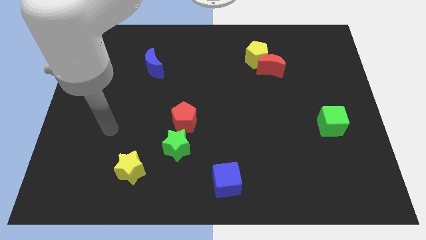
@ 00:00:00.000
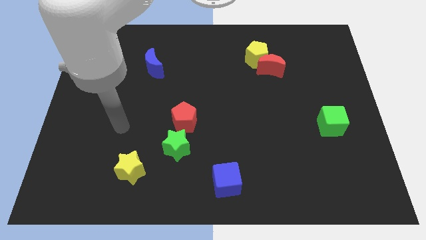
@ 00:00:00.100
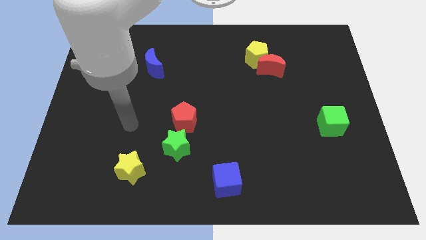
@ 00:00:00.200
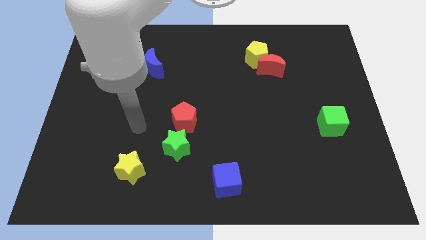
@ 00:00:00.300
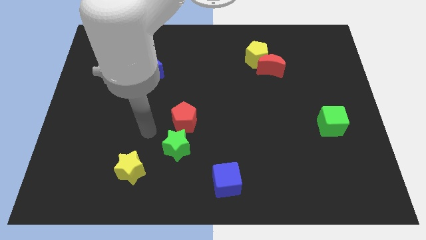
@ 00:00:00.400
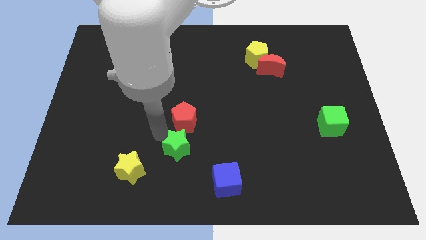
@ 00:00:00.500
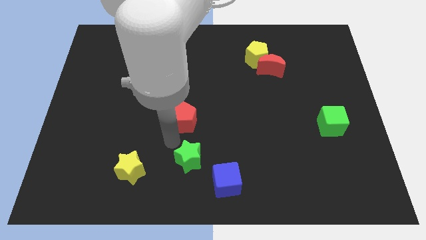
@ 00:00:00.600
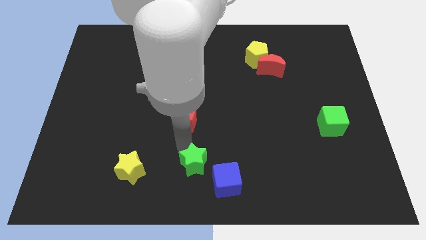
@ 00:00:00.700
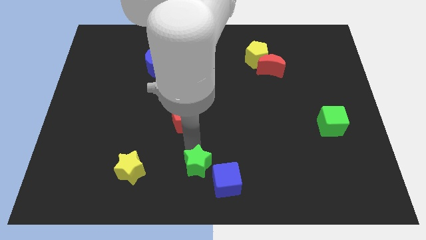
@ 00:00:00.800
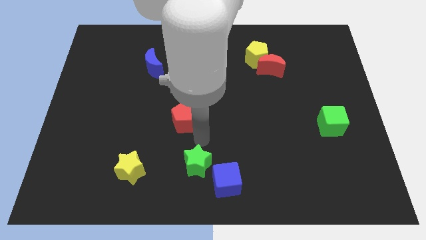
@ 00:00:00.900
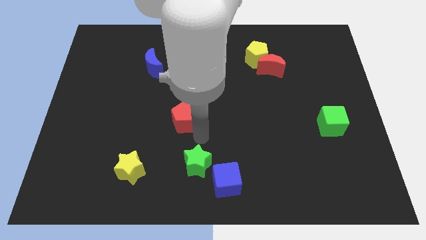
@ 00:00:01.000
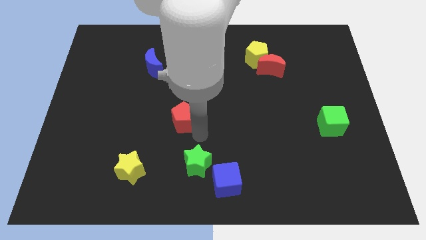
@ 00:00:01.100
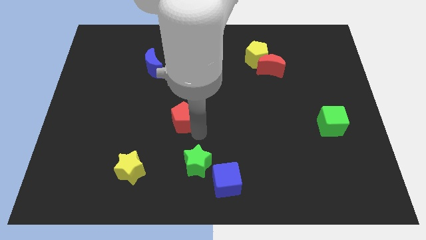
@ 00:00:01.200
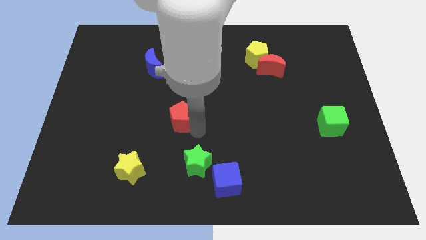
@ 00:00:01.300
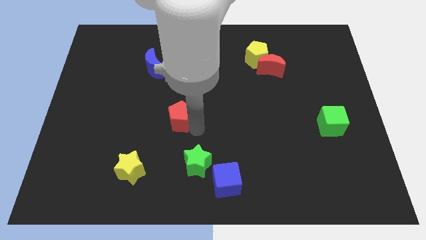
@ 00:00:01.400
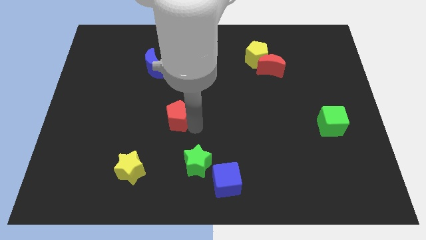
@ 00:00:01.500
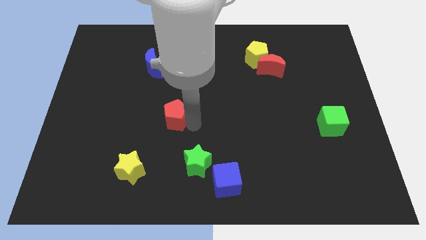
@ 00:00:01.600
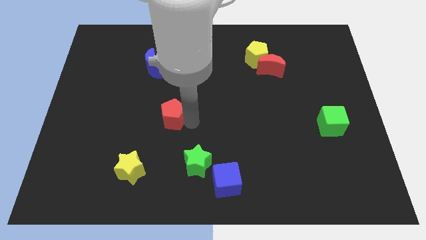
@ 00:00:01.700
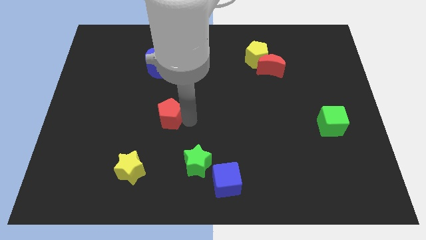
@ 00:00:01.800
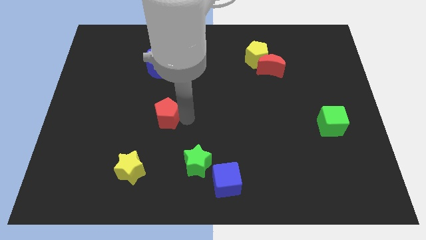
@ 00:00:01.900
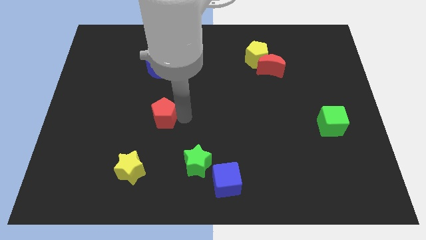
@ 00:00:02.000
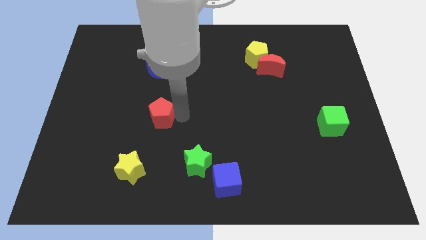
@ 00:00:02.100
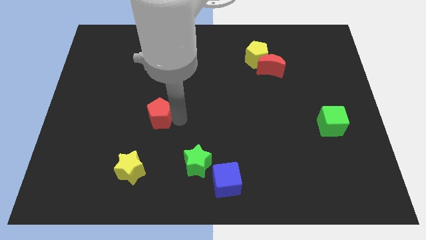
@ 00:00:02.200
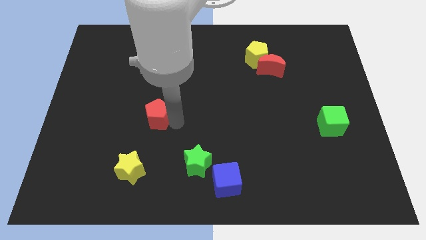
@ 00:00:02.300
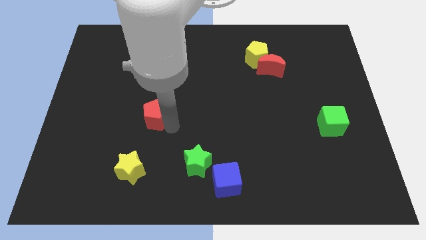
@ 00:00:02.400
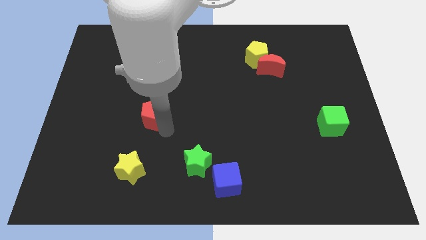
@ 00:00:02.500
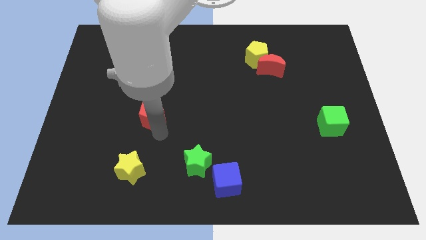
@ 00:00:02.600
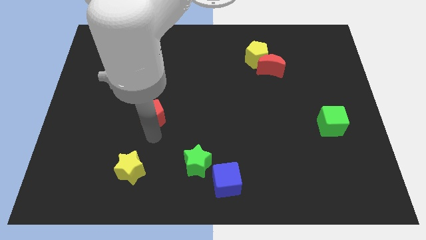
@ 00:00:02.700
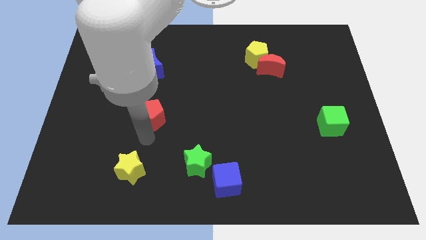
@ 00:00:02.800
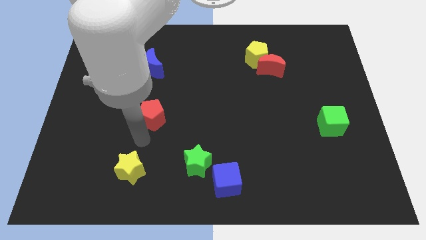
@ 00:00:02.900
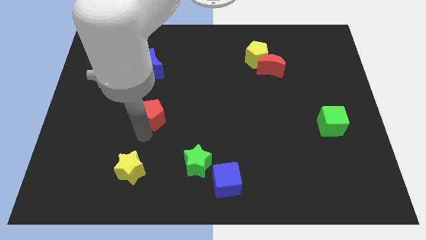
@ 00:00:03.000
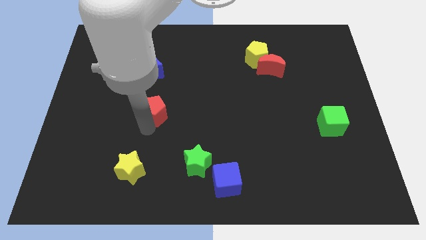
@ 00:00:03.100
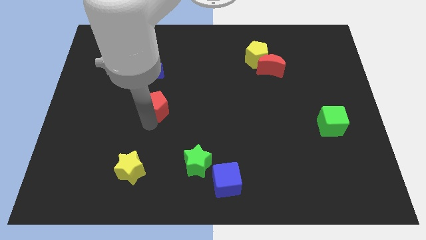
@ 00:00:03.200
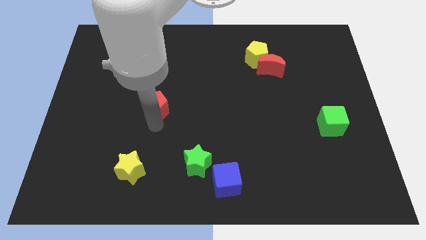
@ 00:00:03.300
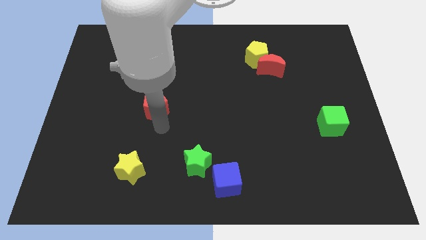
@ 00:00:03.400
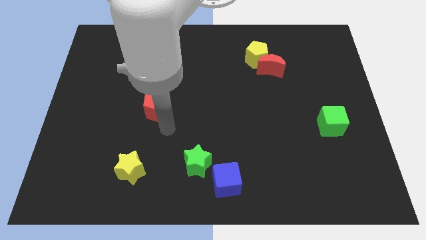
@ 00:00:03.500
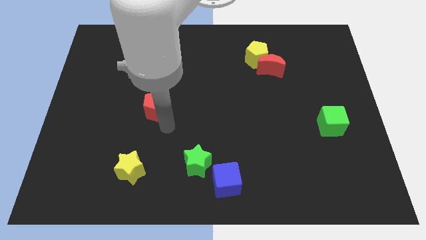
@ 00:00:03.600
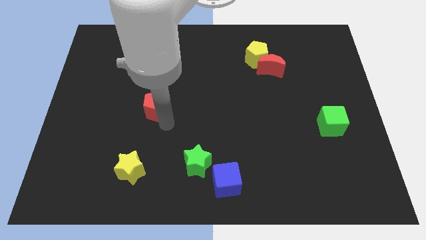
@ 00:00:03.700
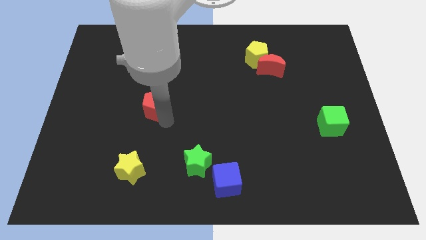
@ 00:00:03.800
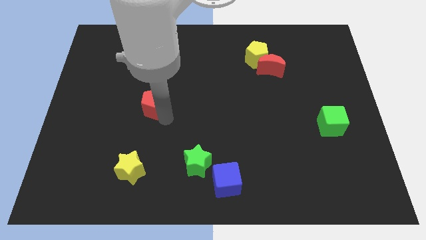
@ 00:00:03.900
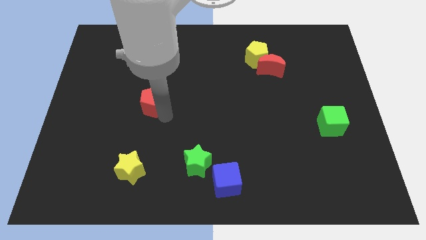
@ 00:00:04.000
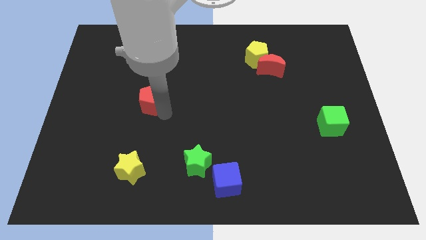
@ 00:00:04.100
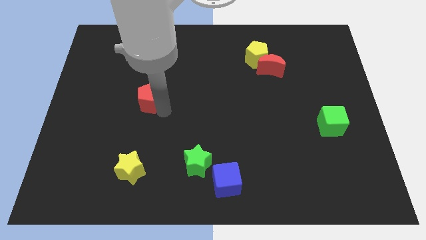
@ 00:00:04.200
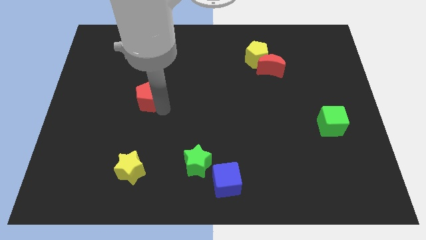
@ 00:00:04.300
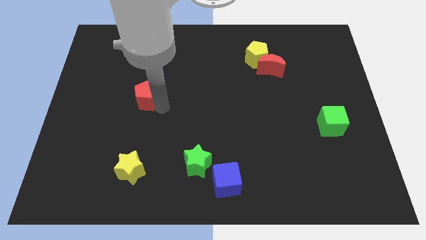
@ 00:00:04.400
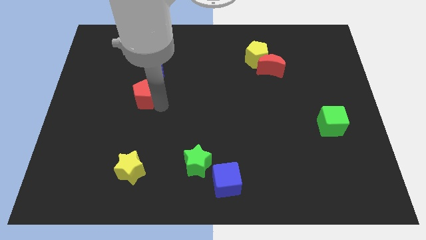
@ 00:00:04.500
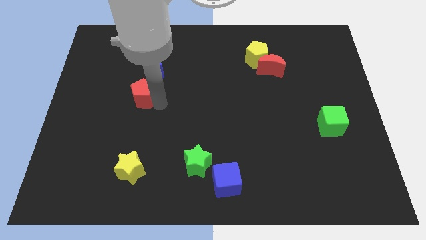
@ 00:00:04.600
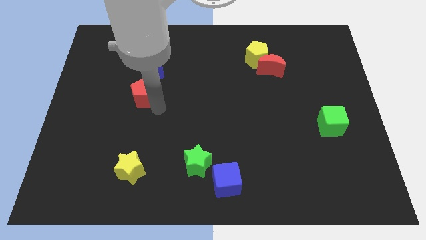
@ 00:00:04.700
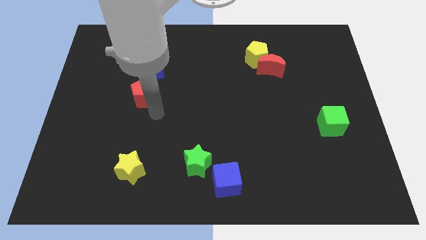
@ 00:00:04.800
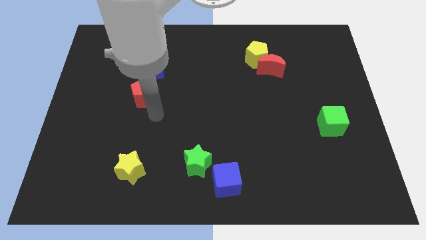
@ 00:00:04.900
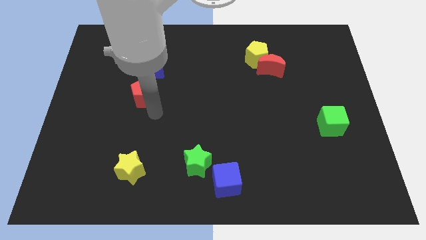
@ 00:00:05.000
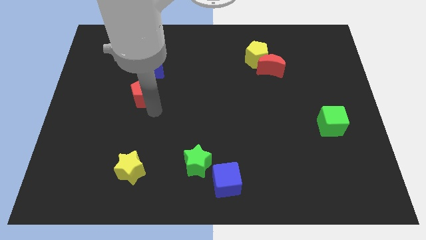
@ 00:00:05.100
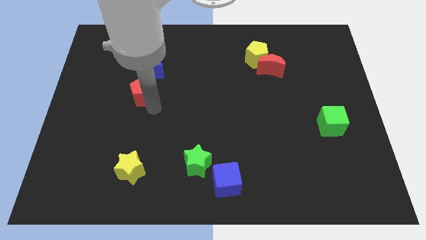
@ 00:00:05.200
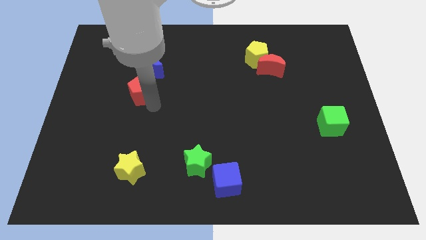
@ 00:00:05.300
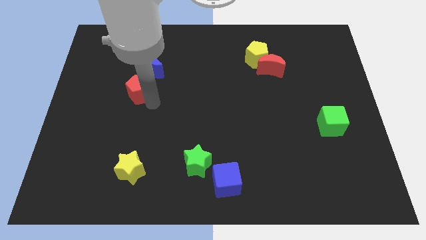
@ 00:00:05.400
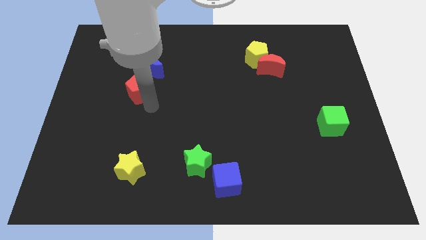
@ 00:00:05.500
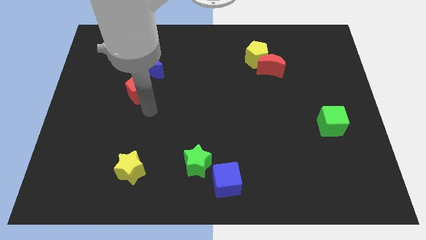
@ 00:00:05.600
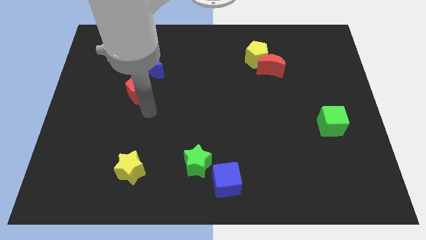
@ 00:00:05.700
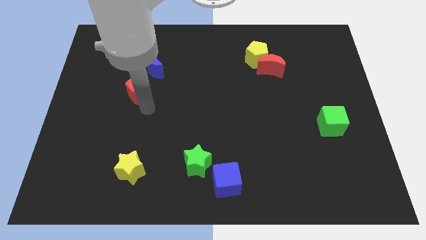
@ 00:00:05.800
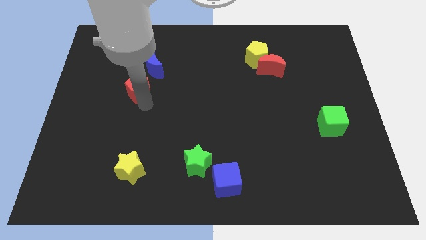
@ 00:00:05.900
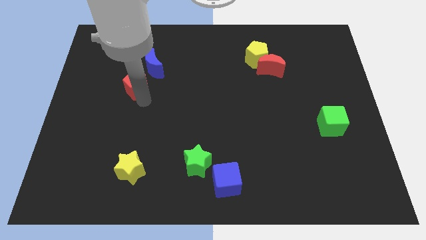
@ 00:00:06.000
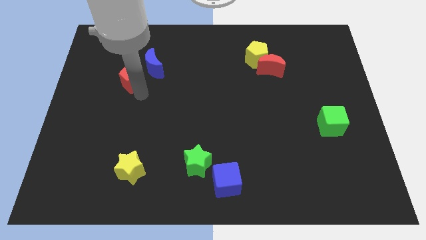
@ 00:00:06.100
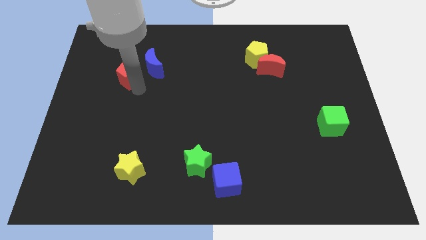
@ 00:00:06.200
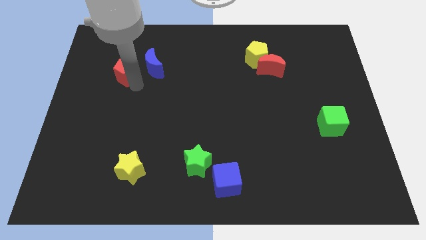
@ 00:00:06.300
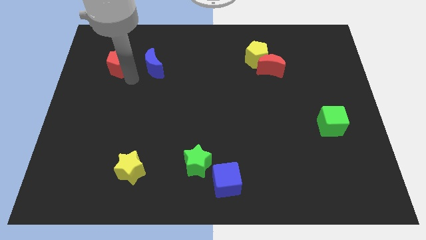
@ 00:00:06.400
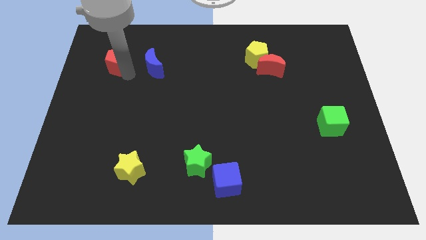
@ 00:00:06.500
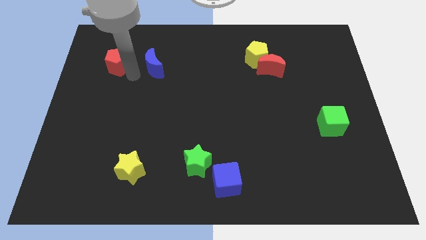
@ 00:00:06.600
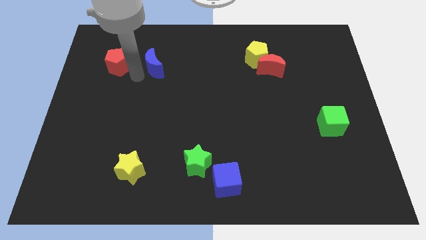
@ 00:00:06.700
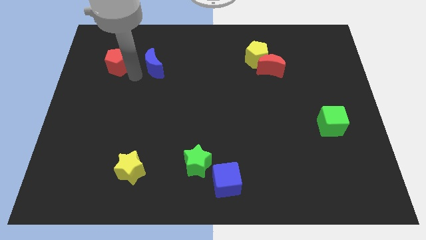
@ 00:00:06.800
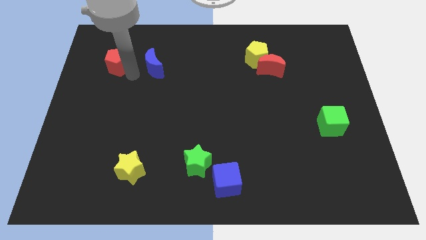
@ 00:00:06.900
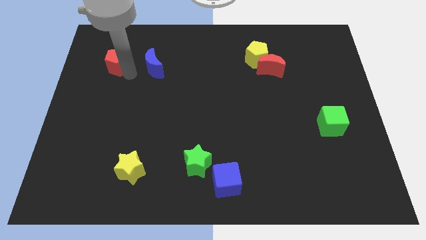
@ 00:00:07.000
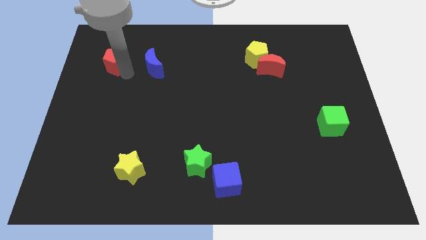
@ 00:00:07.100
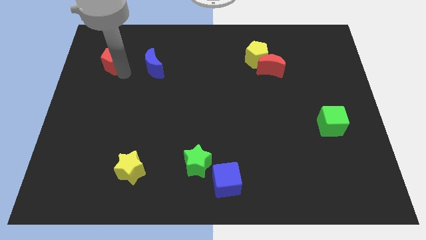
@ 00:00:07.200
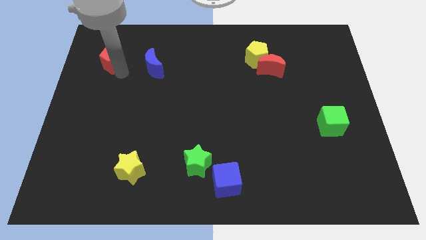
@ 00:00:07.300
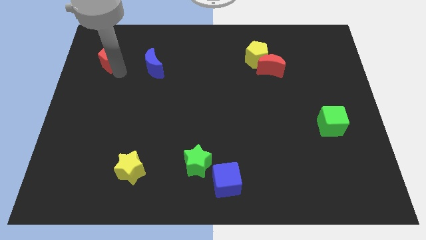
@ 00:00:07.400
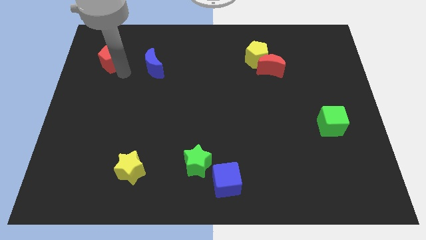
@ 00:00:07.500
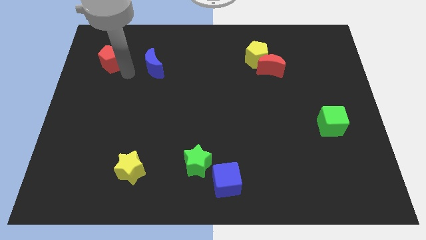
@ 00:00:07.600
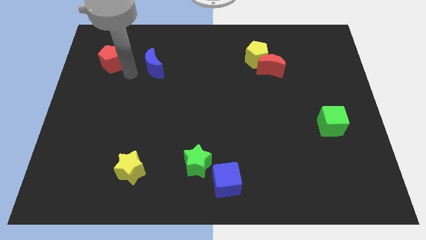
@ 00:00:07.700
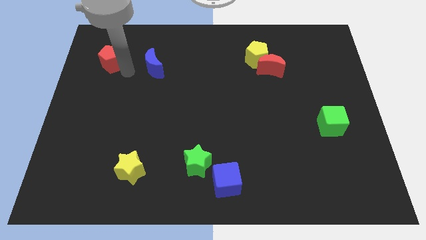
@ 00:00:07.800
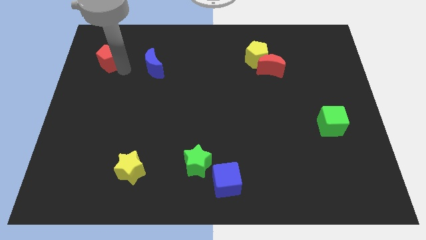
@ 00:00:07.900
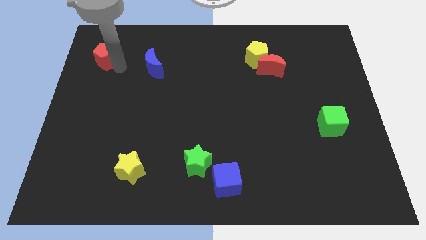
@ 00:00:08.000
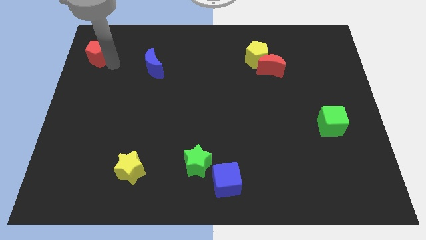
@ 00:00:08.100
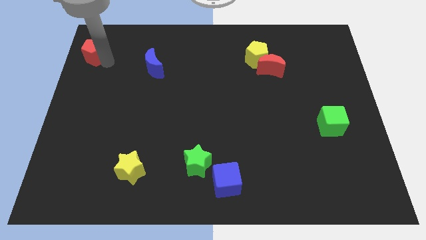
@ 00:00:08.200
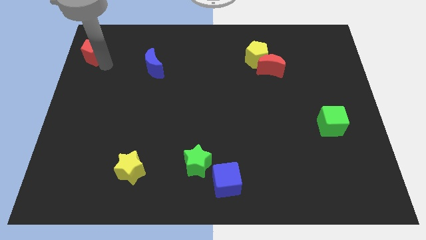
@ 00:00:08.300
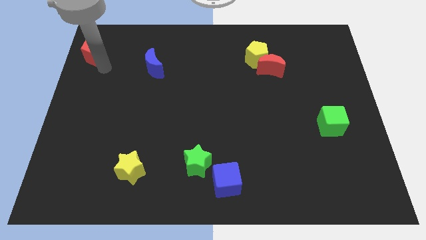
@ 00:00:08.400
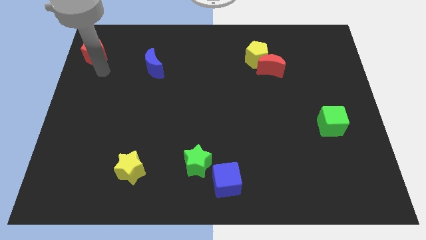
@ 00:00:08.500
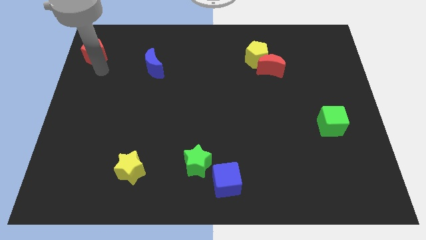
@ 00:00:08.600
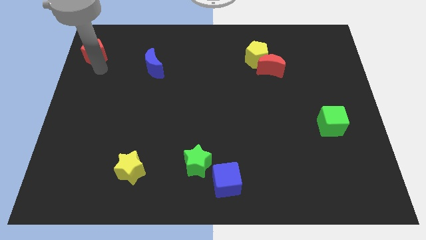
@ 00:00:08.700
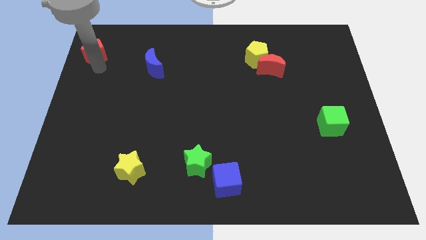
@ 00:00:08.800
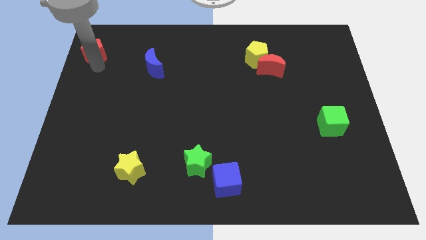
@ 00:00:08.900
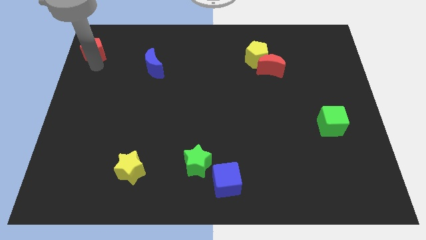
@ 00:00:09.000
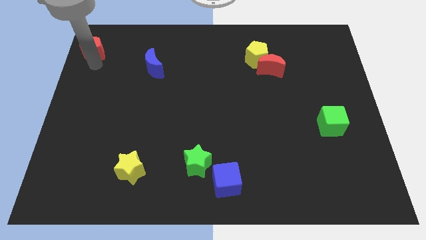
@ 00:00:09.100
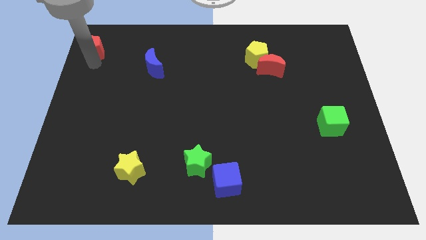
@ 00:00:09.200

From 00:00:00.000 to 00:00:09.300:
slide the red pentagon to the top left of the board
